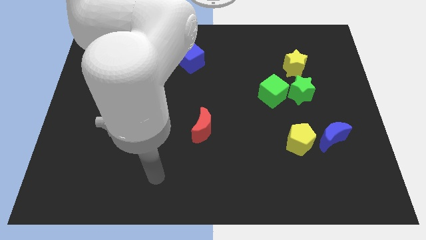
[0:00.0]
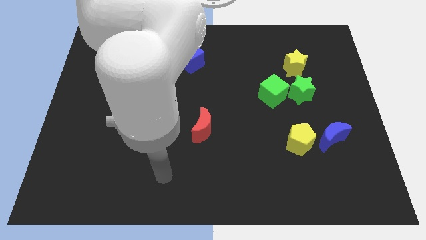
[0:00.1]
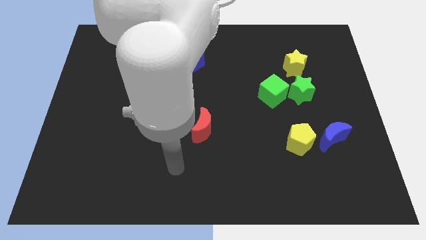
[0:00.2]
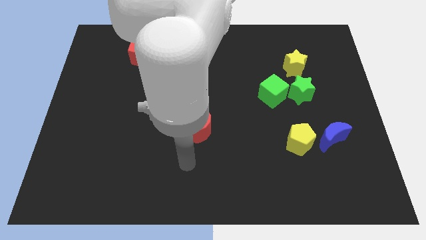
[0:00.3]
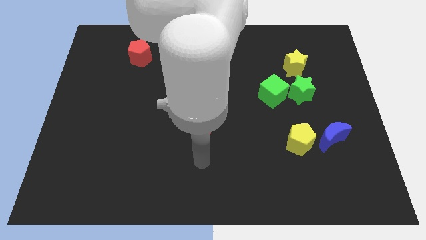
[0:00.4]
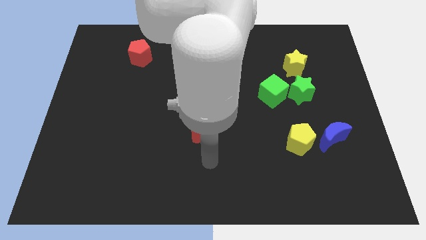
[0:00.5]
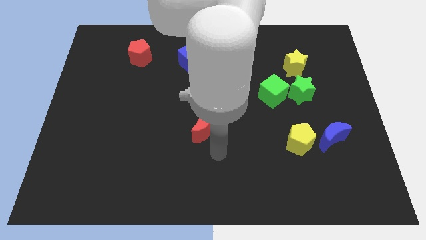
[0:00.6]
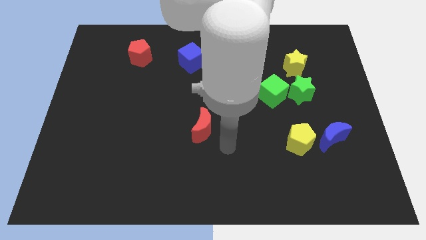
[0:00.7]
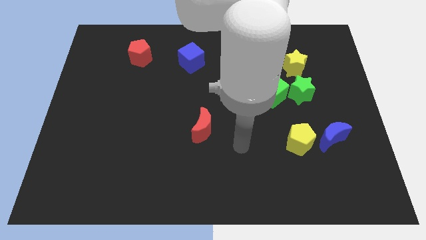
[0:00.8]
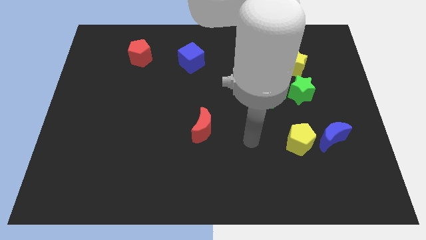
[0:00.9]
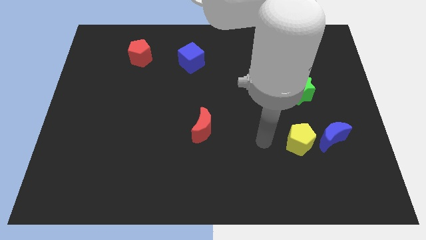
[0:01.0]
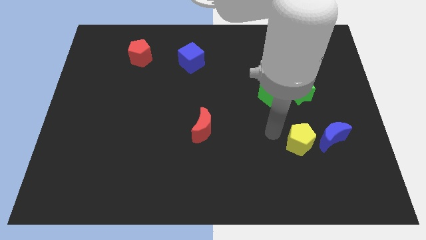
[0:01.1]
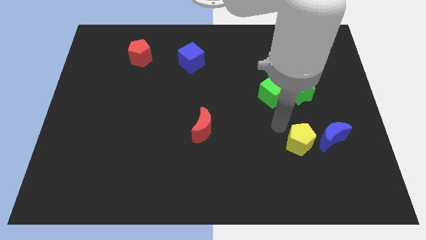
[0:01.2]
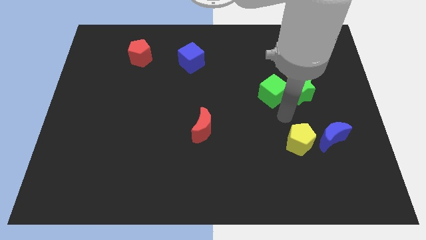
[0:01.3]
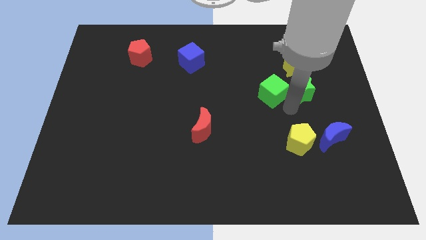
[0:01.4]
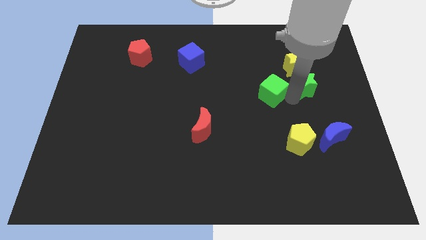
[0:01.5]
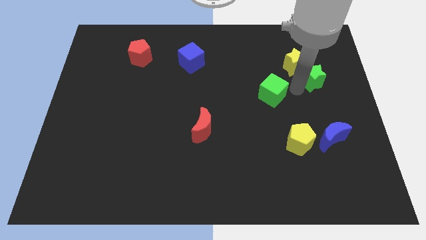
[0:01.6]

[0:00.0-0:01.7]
separate the green cube from the green star

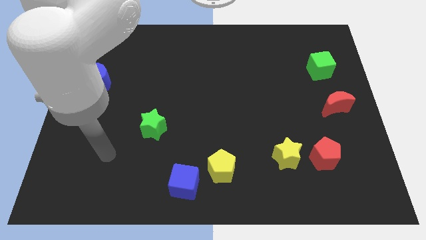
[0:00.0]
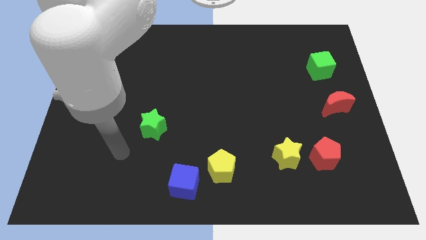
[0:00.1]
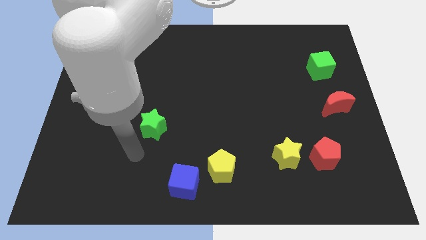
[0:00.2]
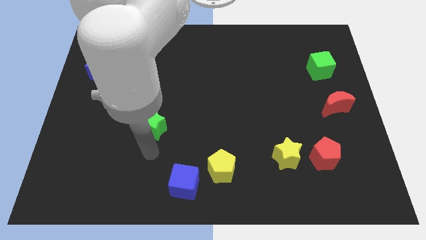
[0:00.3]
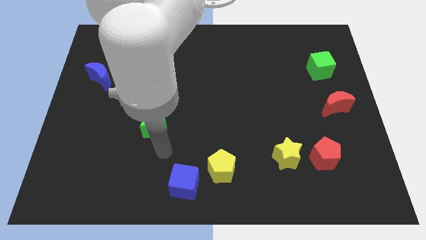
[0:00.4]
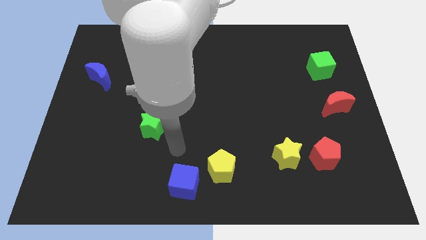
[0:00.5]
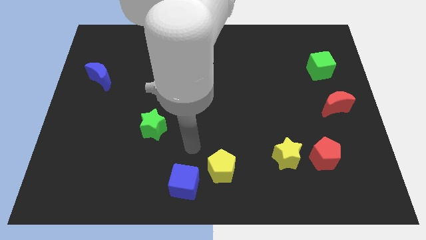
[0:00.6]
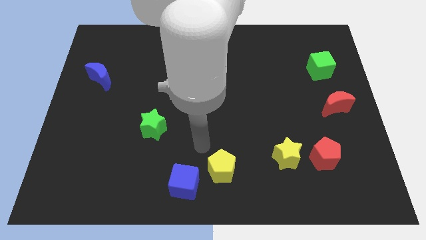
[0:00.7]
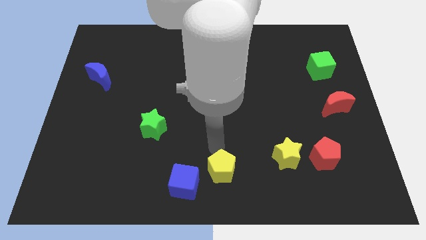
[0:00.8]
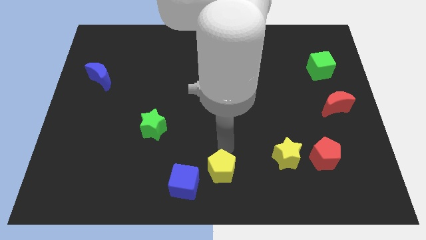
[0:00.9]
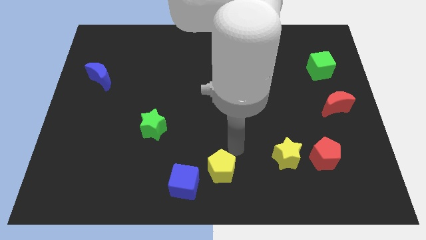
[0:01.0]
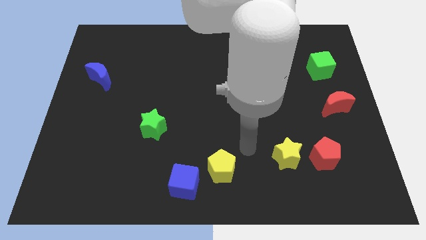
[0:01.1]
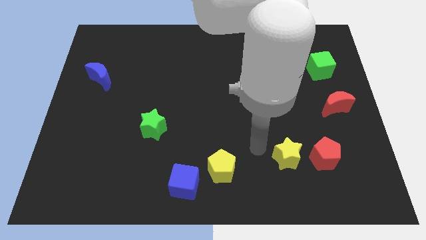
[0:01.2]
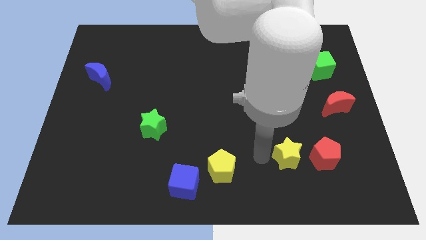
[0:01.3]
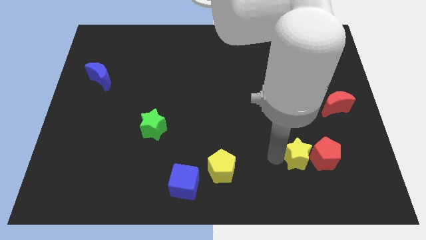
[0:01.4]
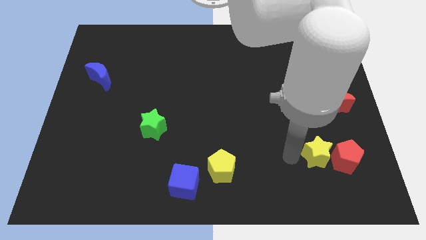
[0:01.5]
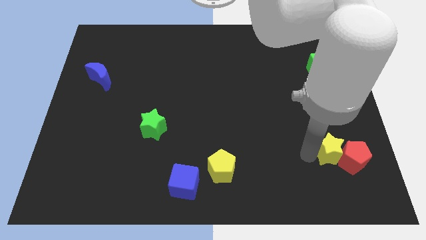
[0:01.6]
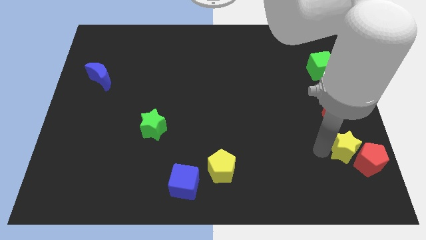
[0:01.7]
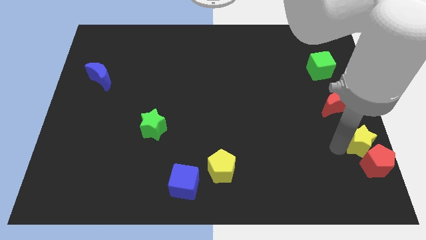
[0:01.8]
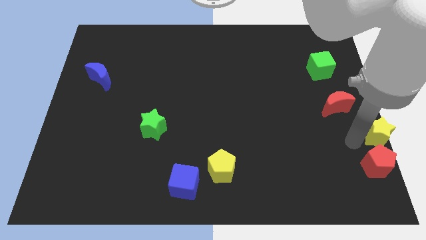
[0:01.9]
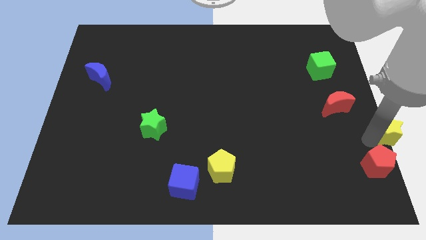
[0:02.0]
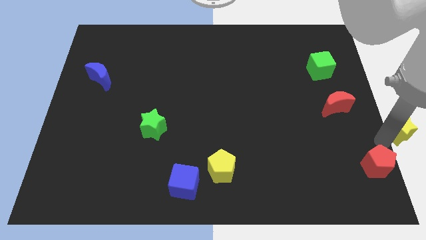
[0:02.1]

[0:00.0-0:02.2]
move the red pentagon away from the yellow star

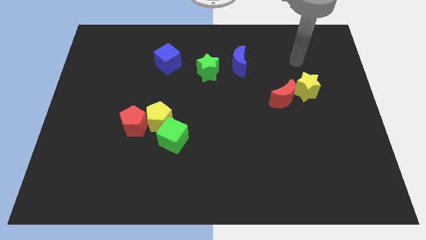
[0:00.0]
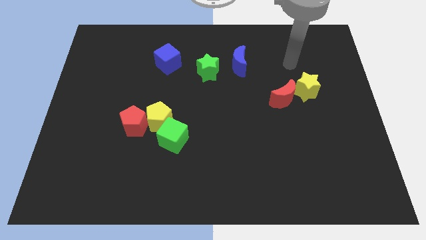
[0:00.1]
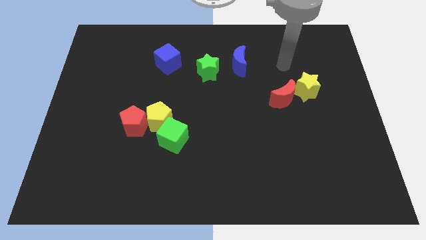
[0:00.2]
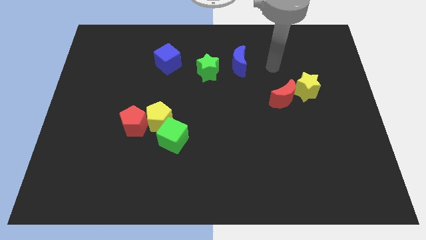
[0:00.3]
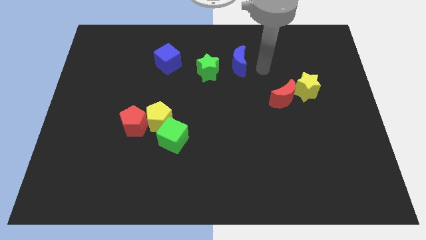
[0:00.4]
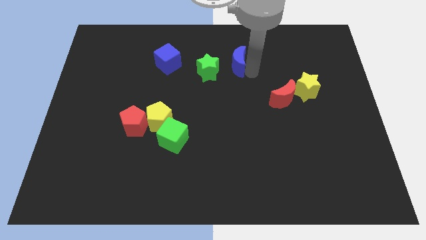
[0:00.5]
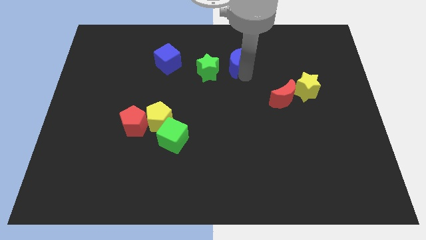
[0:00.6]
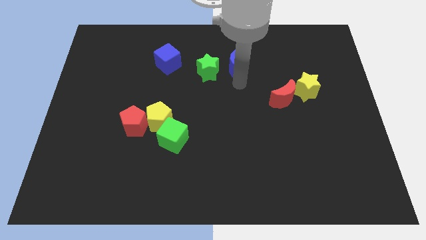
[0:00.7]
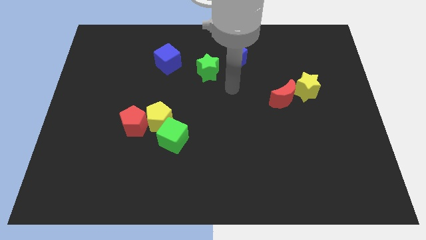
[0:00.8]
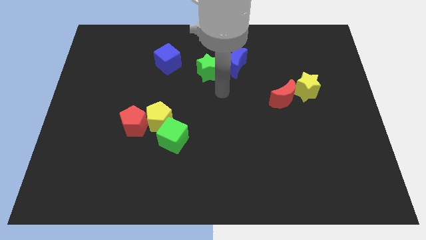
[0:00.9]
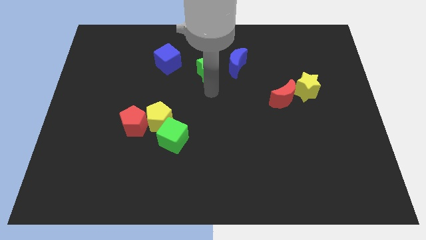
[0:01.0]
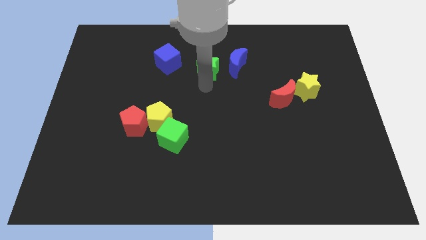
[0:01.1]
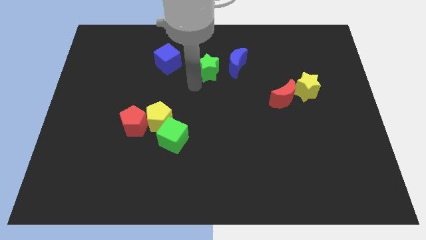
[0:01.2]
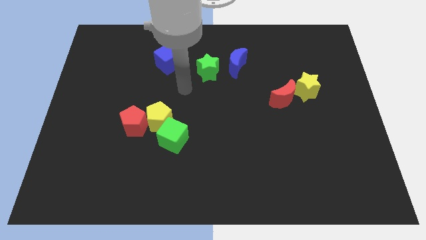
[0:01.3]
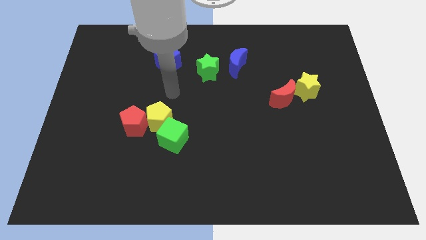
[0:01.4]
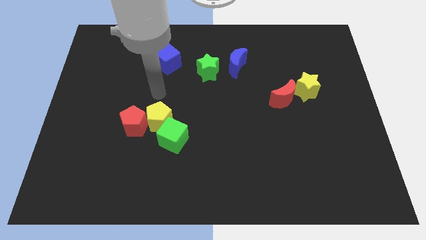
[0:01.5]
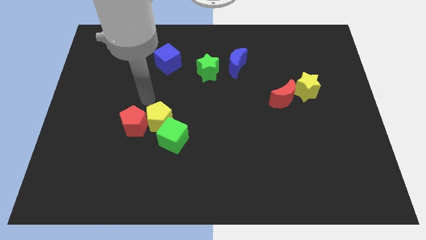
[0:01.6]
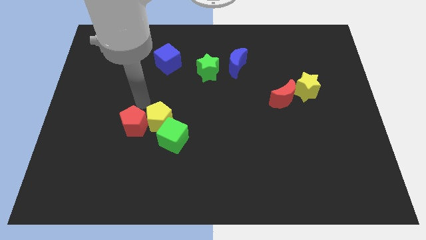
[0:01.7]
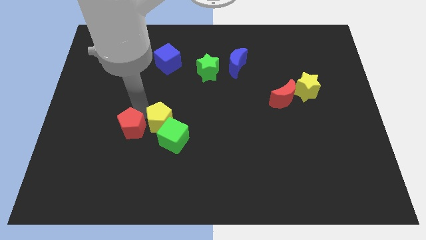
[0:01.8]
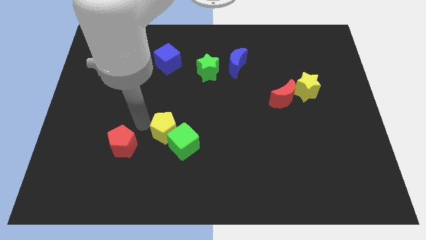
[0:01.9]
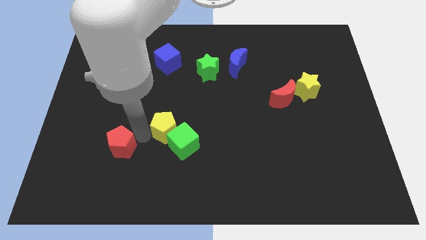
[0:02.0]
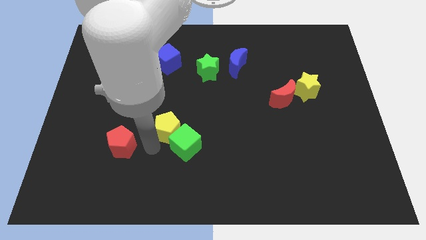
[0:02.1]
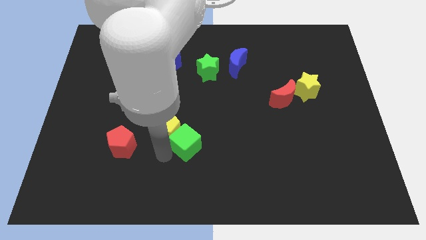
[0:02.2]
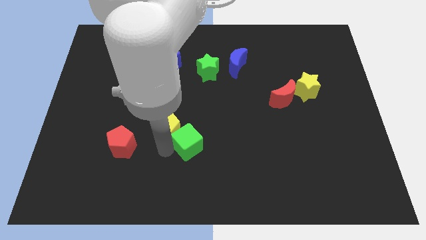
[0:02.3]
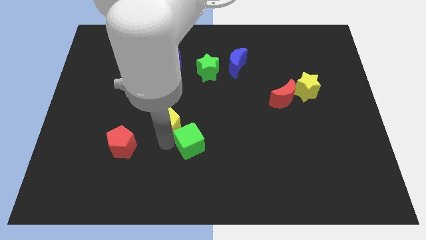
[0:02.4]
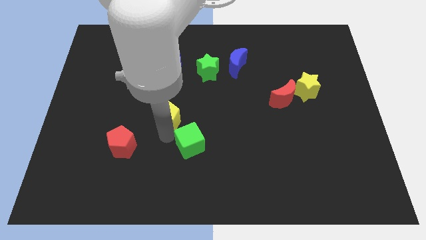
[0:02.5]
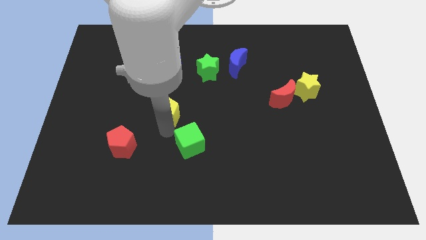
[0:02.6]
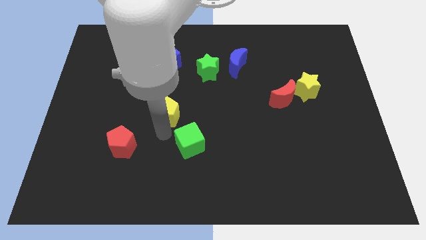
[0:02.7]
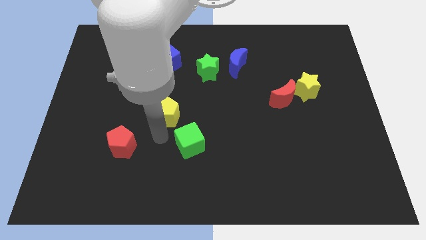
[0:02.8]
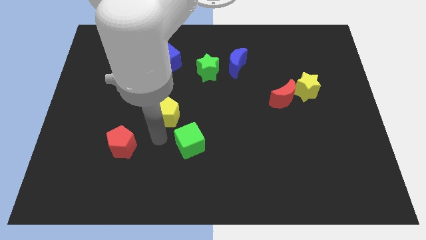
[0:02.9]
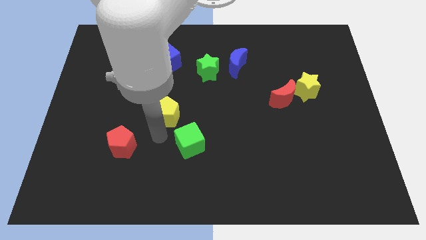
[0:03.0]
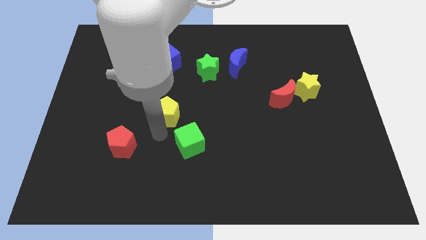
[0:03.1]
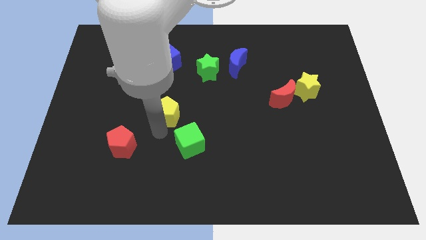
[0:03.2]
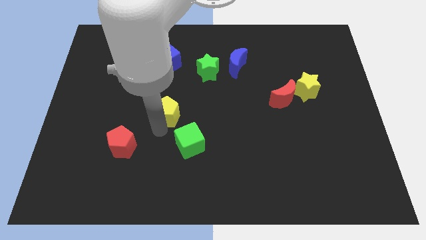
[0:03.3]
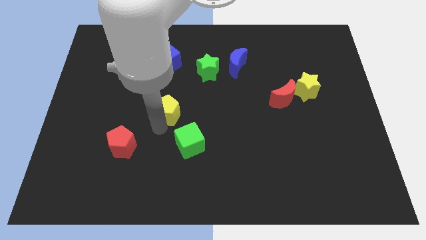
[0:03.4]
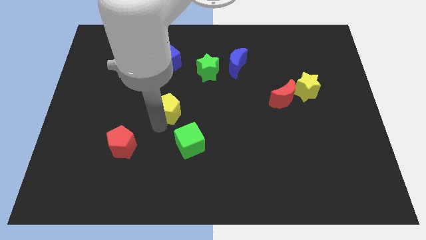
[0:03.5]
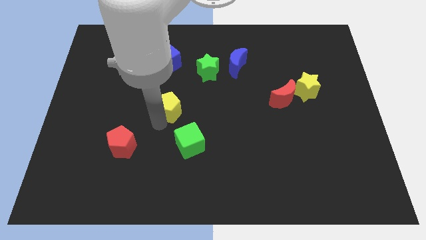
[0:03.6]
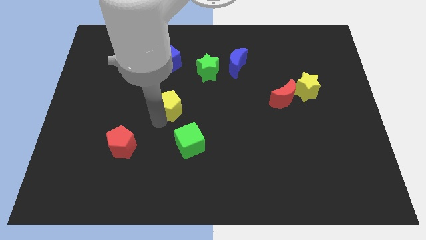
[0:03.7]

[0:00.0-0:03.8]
move the yellow pentagon away from the red pentagon and green cube

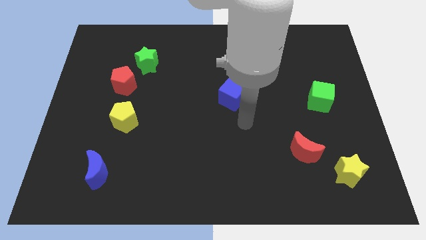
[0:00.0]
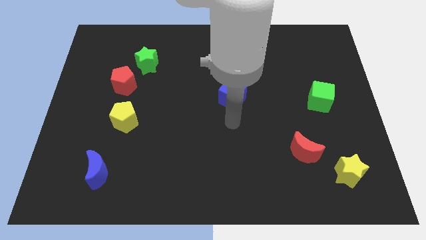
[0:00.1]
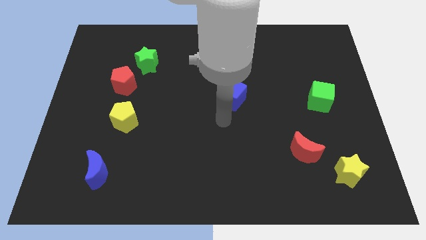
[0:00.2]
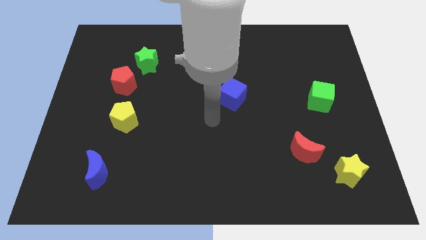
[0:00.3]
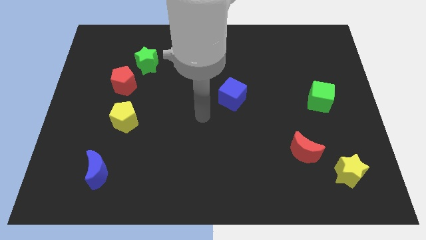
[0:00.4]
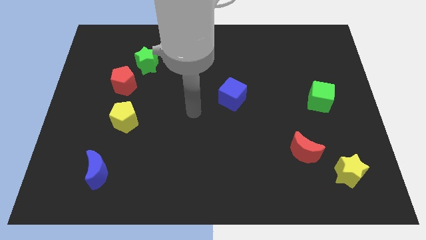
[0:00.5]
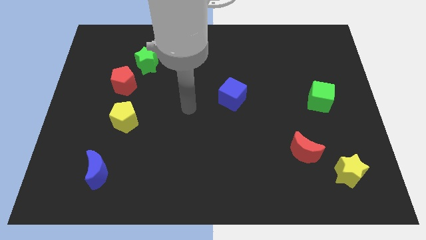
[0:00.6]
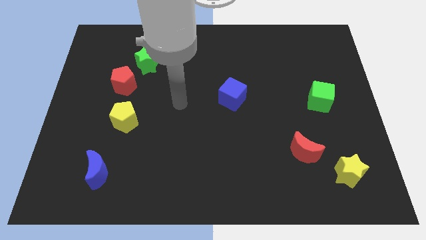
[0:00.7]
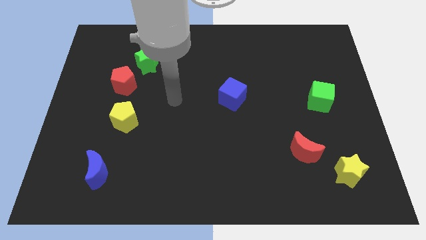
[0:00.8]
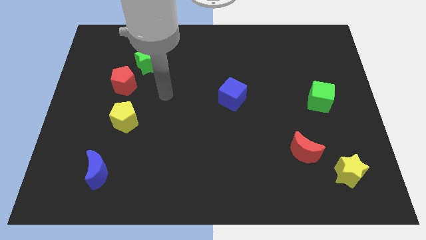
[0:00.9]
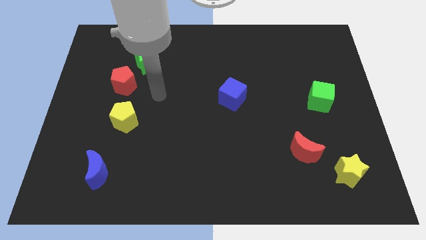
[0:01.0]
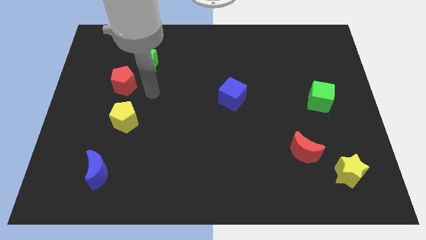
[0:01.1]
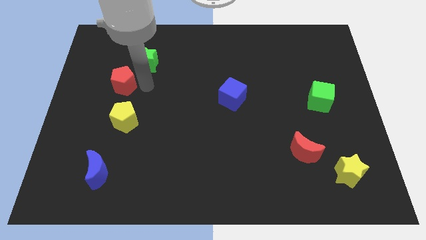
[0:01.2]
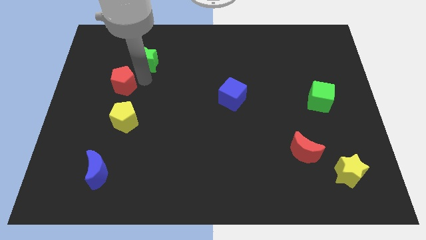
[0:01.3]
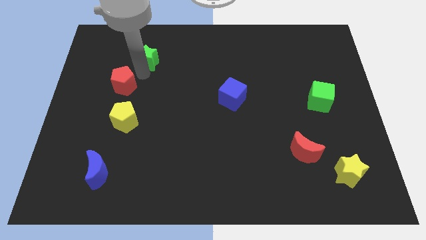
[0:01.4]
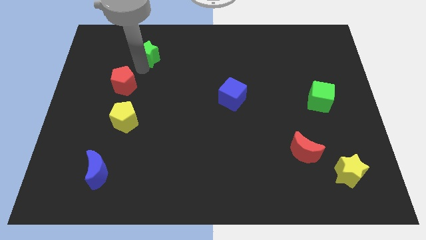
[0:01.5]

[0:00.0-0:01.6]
move the red pentagon away from the green star
